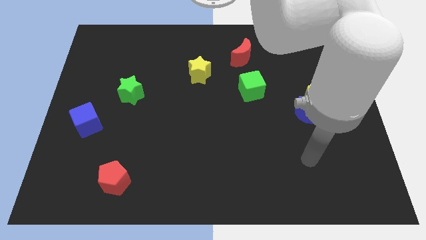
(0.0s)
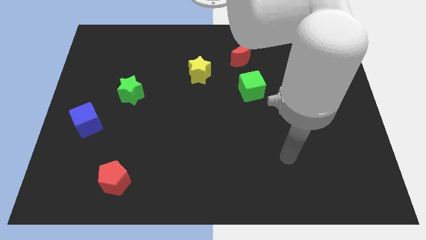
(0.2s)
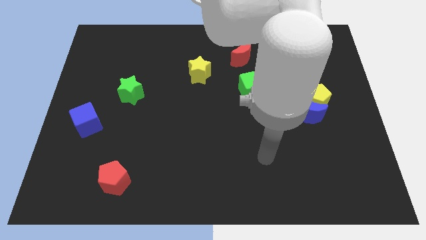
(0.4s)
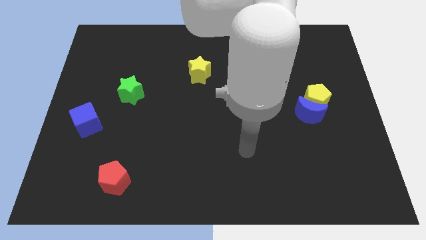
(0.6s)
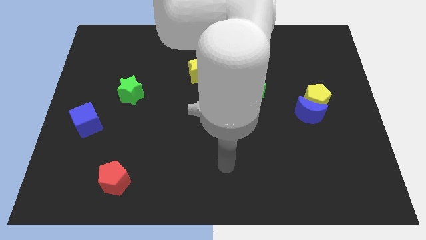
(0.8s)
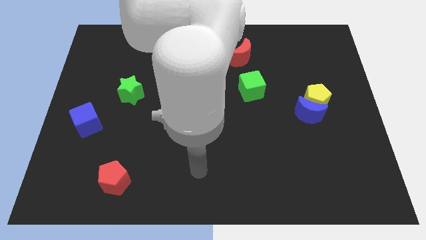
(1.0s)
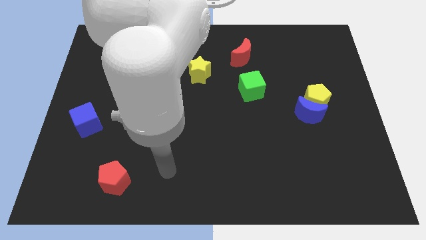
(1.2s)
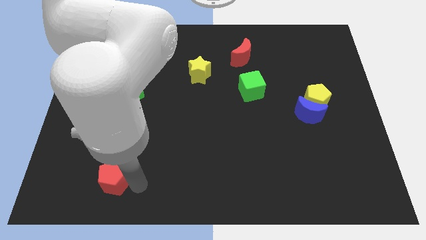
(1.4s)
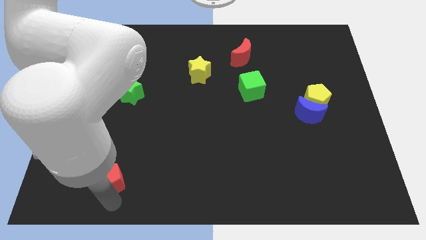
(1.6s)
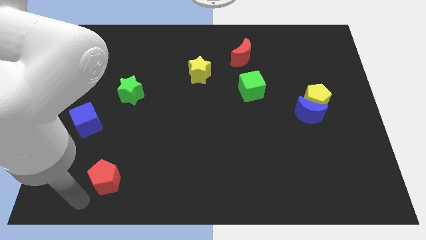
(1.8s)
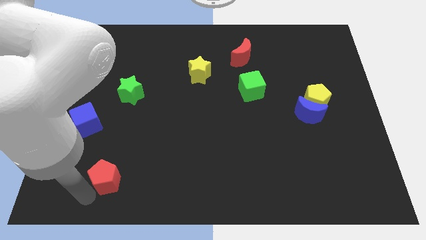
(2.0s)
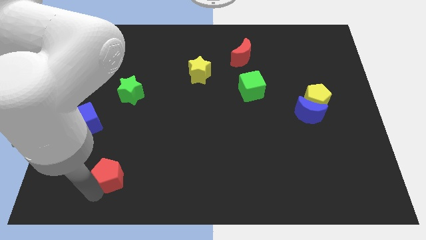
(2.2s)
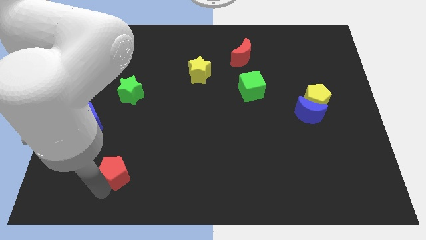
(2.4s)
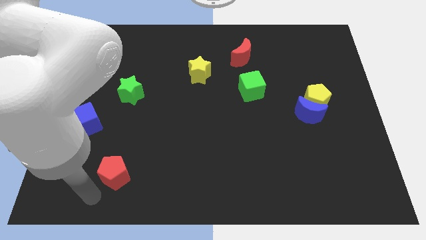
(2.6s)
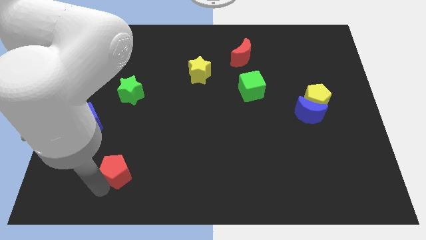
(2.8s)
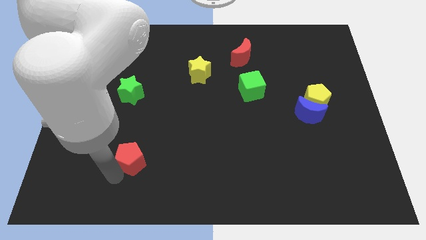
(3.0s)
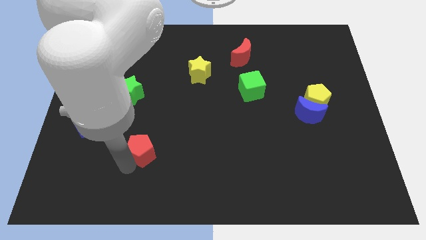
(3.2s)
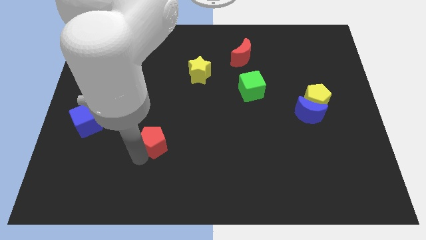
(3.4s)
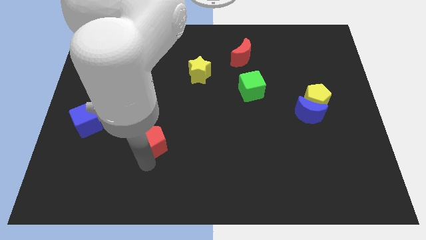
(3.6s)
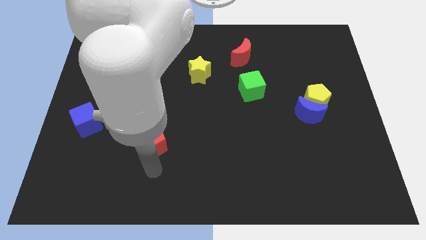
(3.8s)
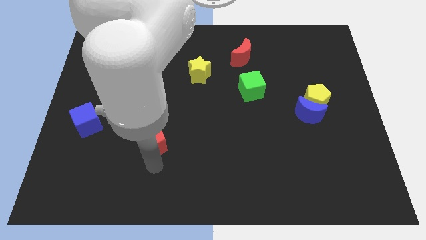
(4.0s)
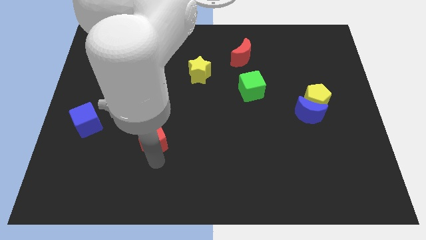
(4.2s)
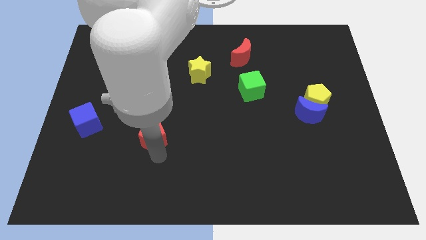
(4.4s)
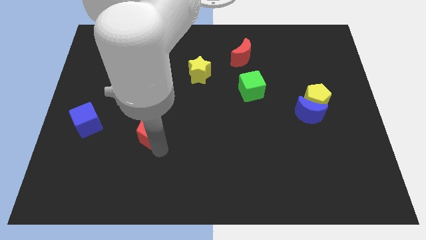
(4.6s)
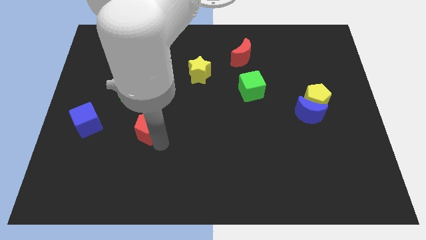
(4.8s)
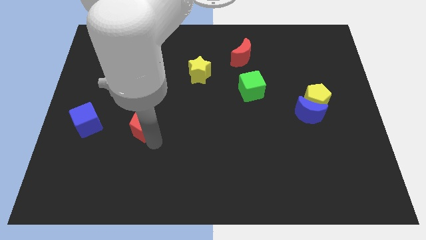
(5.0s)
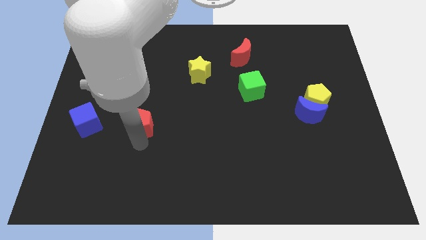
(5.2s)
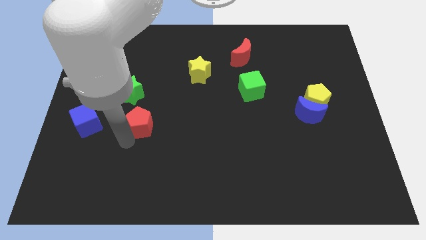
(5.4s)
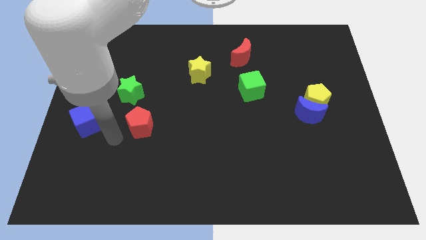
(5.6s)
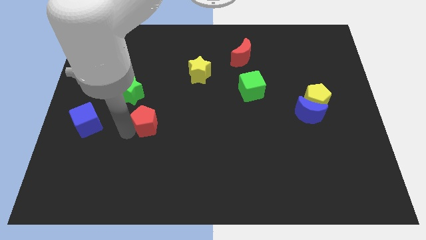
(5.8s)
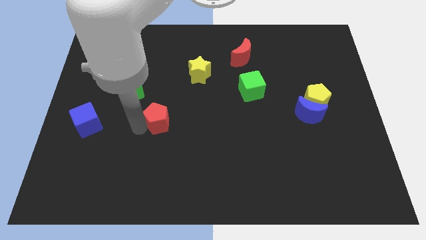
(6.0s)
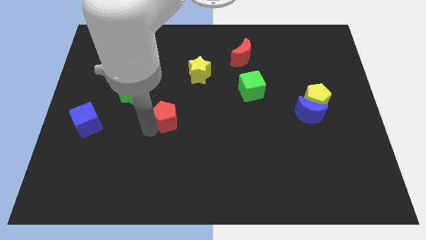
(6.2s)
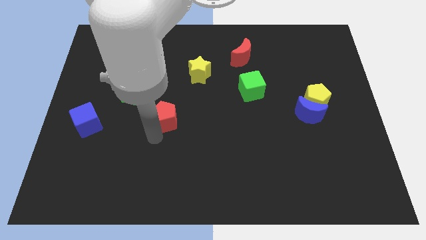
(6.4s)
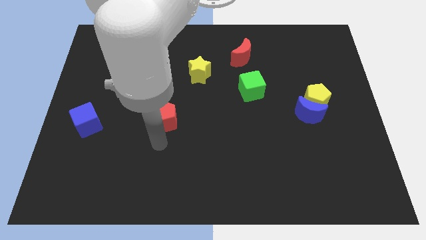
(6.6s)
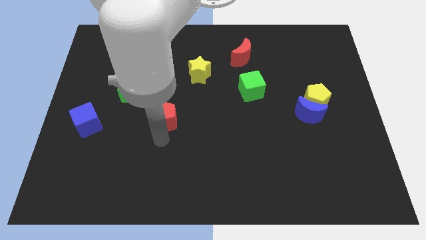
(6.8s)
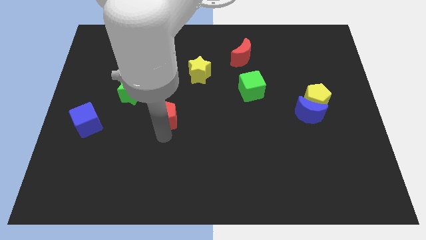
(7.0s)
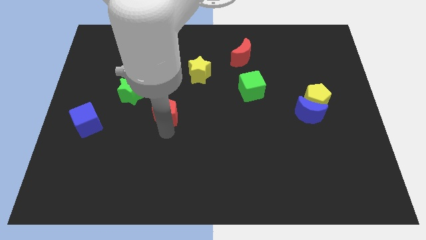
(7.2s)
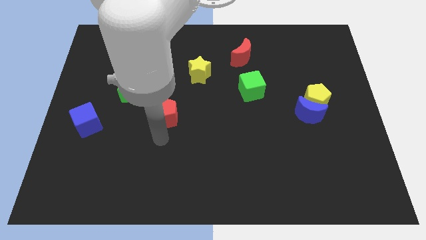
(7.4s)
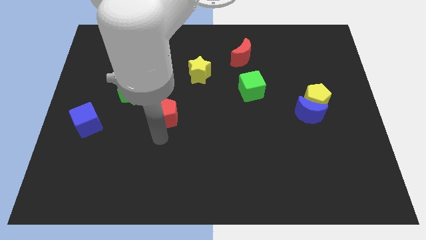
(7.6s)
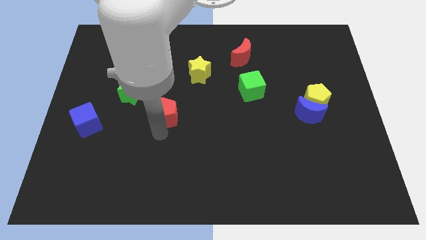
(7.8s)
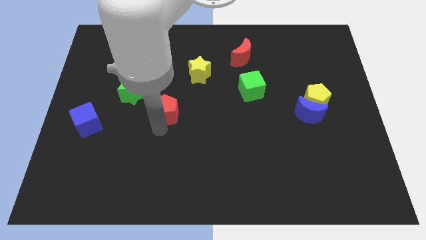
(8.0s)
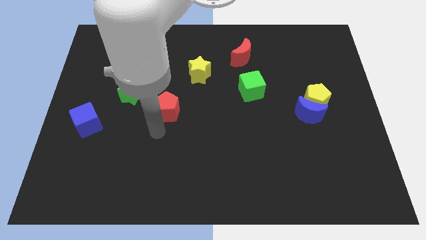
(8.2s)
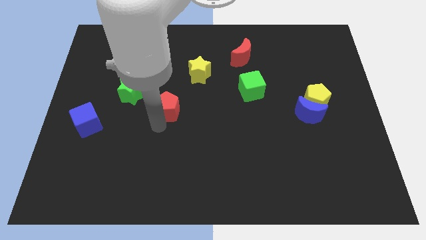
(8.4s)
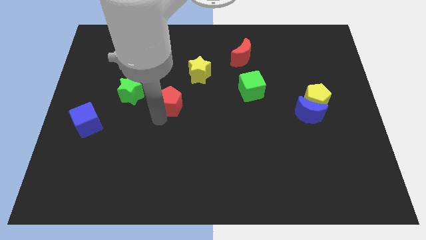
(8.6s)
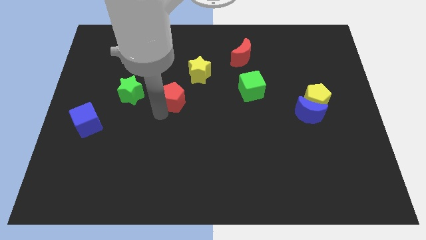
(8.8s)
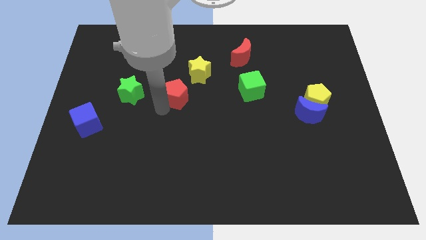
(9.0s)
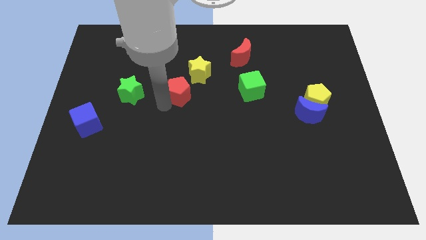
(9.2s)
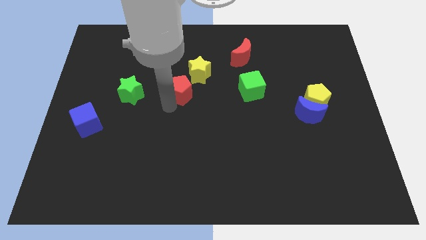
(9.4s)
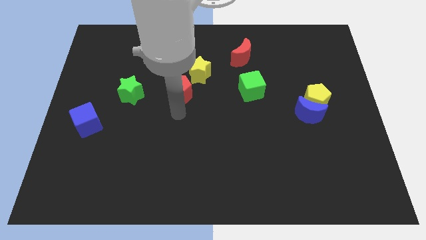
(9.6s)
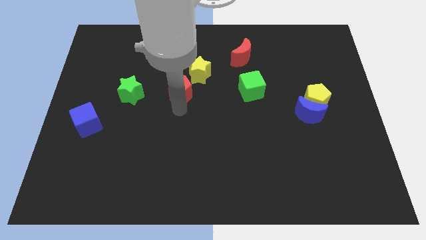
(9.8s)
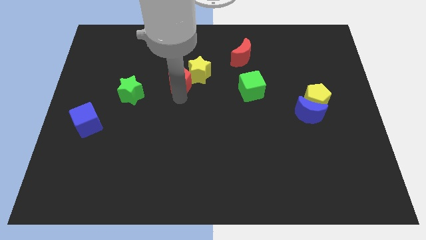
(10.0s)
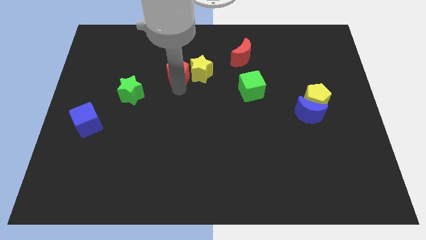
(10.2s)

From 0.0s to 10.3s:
slide the red pentagon to the top left of the yellow star

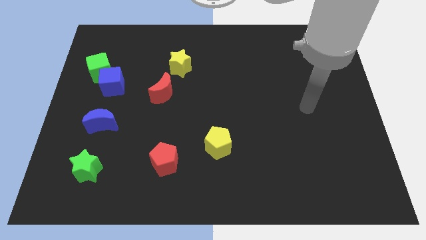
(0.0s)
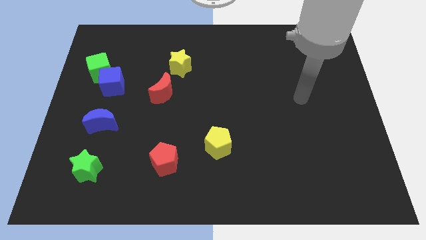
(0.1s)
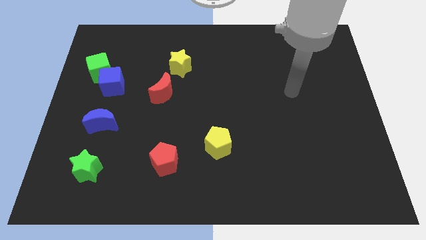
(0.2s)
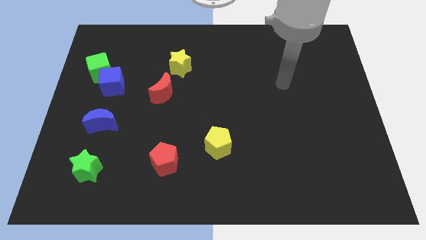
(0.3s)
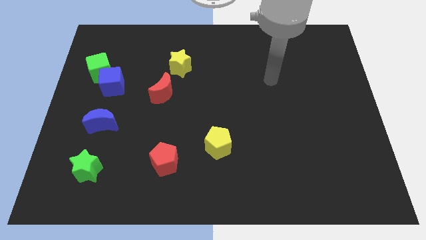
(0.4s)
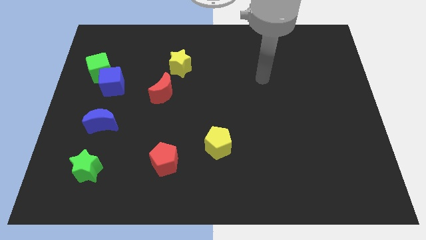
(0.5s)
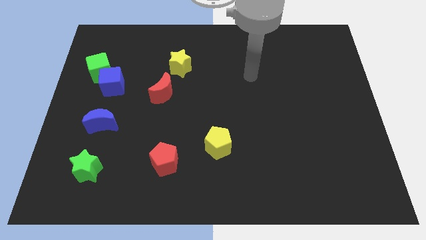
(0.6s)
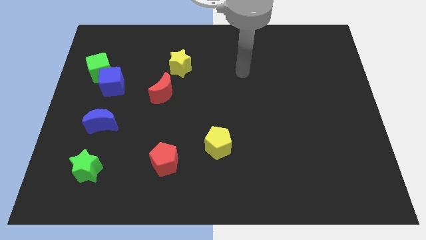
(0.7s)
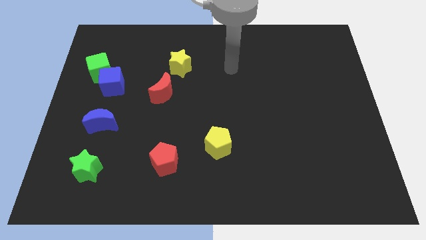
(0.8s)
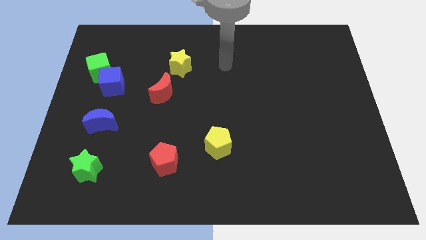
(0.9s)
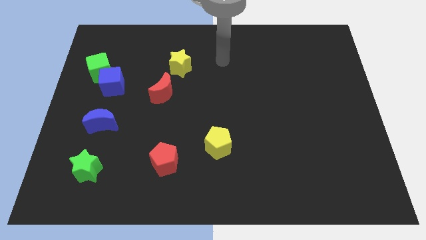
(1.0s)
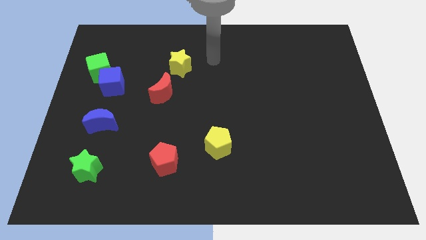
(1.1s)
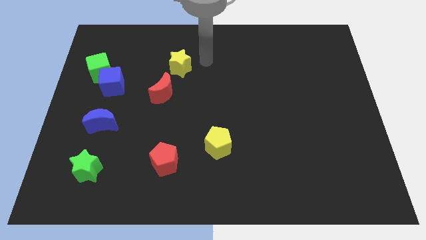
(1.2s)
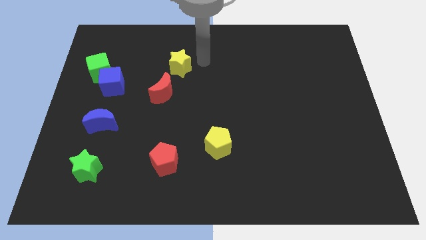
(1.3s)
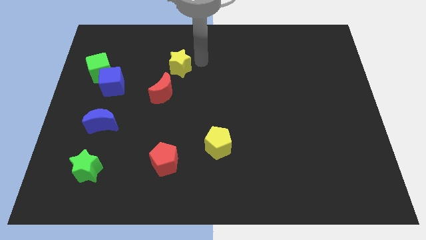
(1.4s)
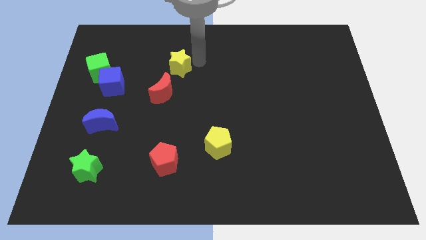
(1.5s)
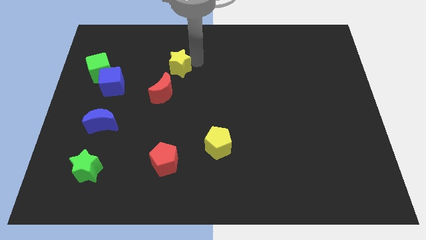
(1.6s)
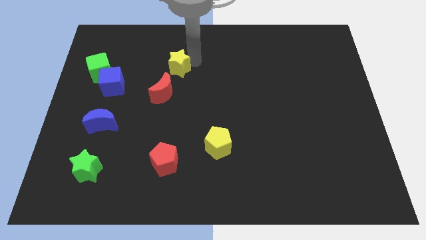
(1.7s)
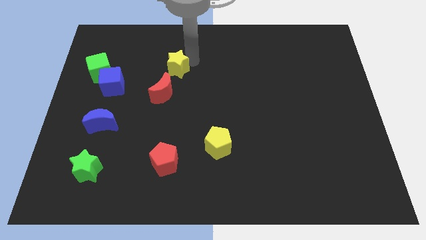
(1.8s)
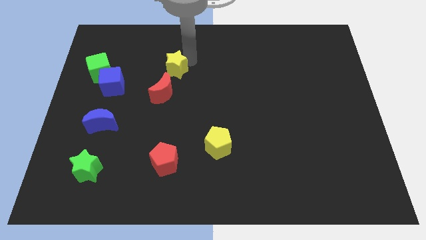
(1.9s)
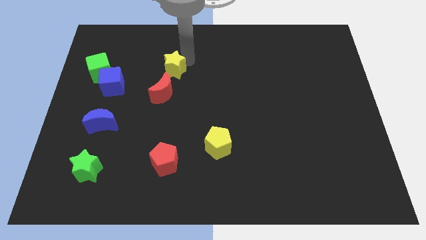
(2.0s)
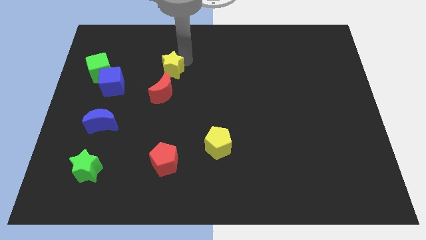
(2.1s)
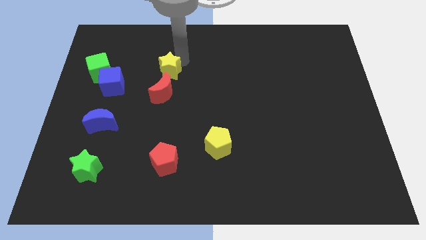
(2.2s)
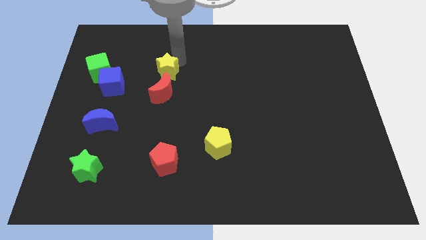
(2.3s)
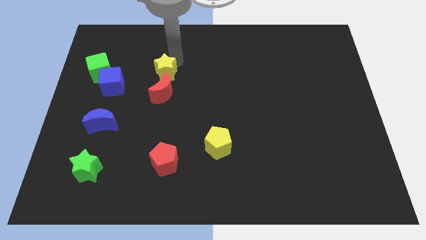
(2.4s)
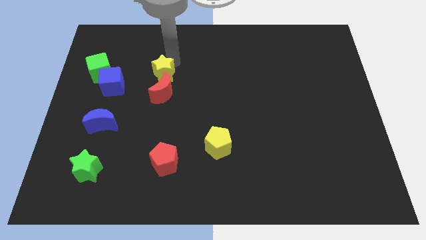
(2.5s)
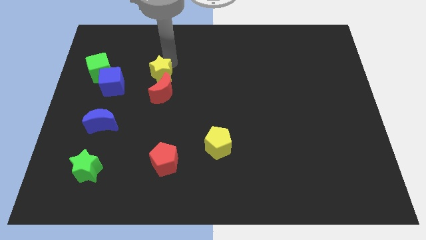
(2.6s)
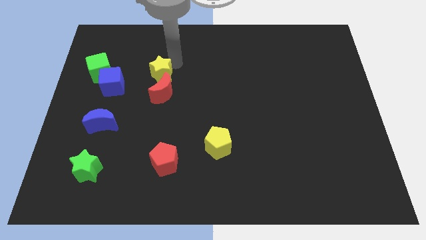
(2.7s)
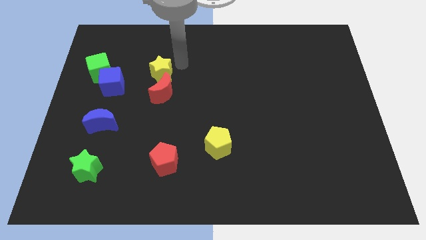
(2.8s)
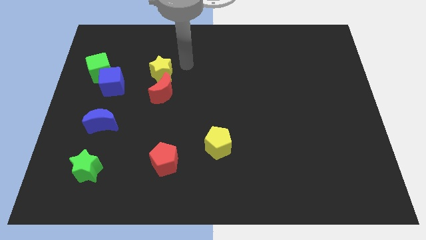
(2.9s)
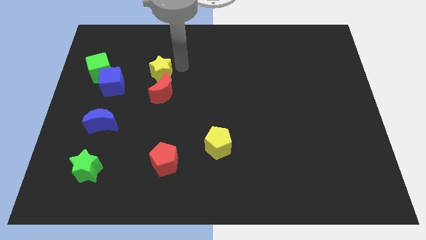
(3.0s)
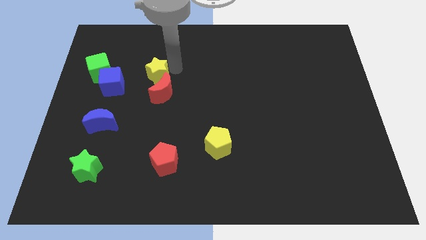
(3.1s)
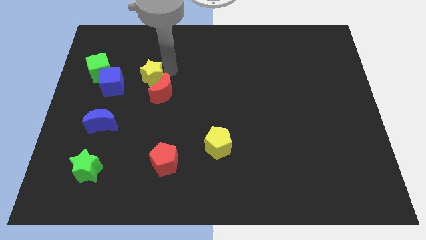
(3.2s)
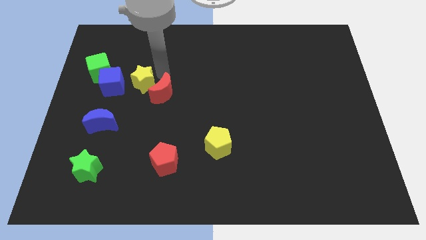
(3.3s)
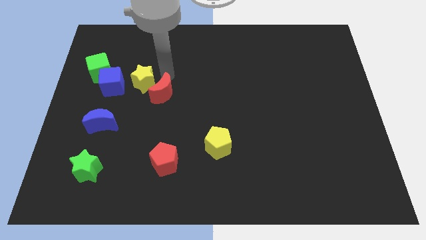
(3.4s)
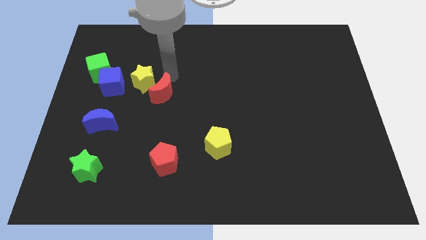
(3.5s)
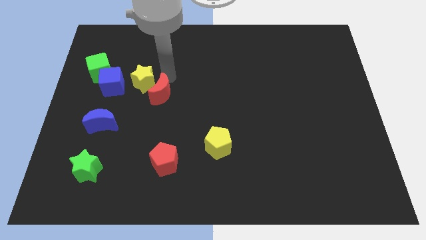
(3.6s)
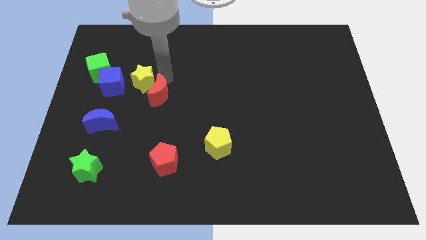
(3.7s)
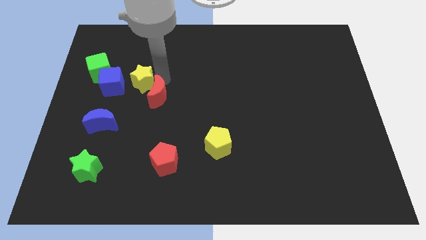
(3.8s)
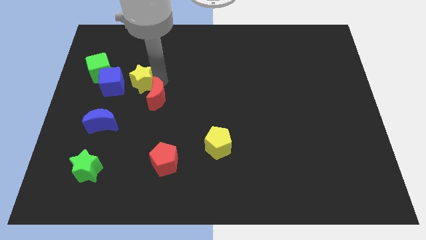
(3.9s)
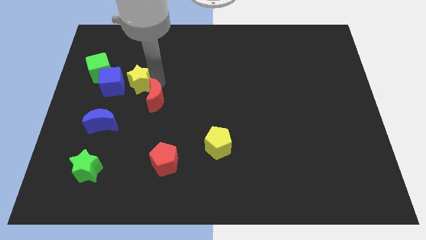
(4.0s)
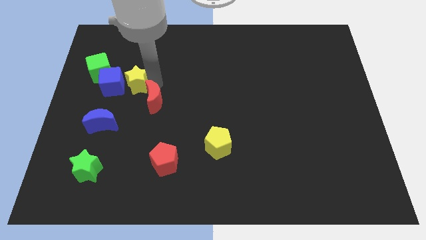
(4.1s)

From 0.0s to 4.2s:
put the yellow star diagonally down and to the right of the green cube
